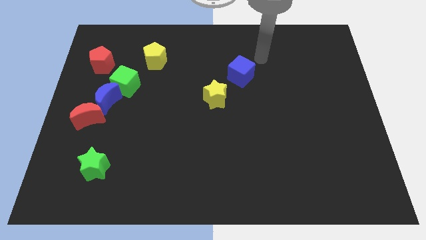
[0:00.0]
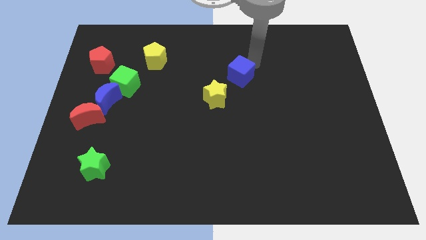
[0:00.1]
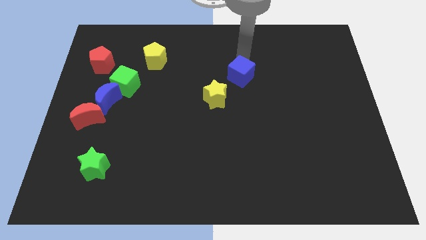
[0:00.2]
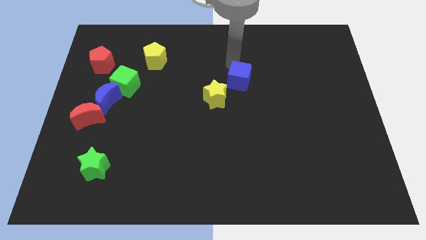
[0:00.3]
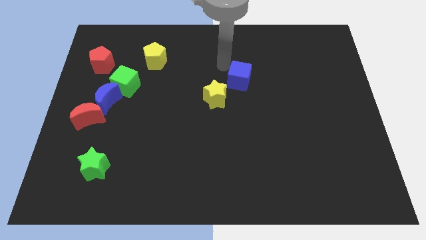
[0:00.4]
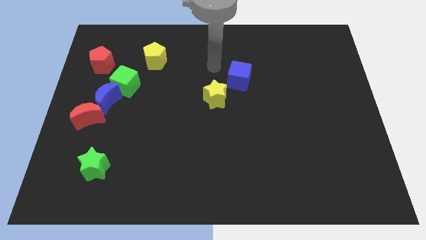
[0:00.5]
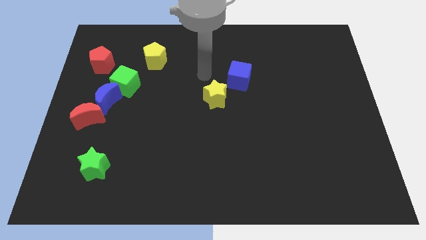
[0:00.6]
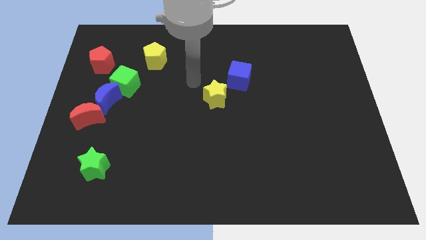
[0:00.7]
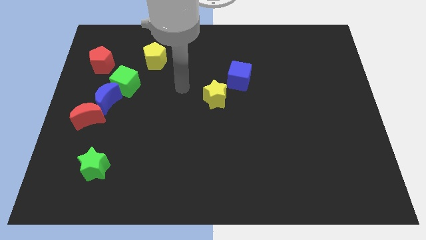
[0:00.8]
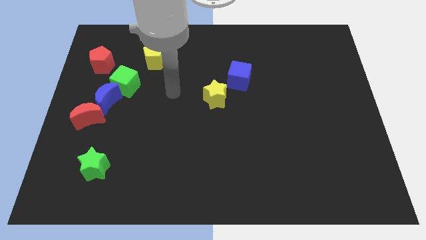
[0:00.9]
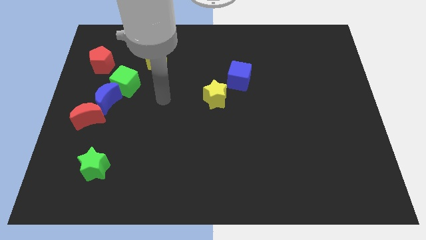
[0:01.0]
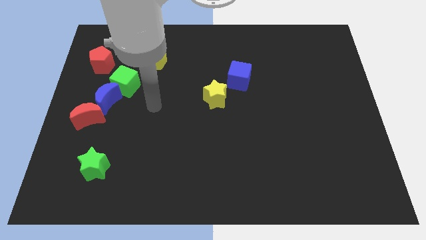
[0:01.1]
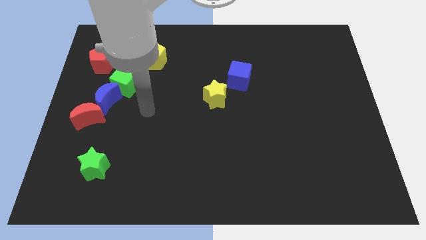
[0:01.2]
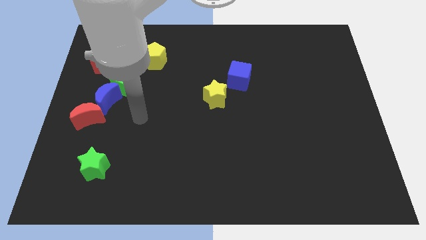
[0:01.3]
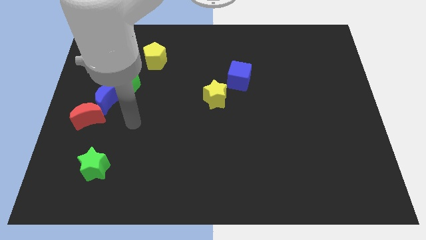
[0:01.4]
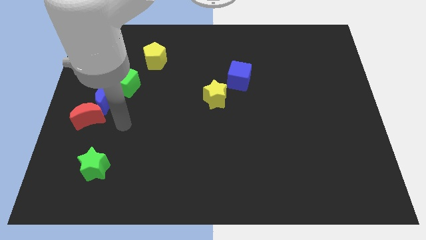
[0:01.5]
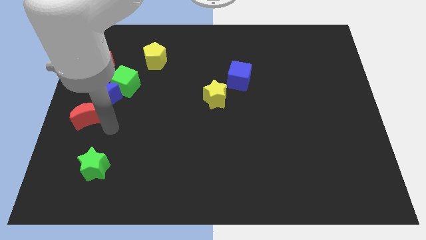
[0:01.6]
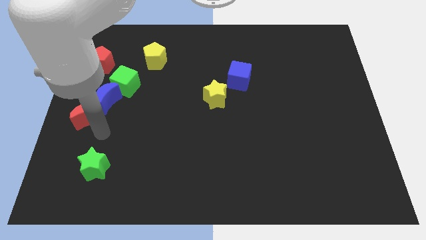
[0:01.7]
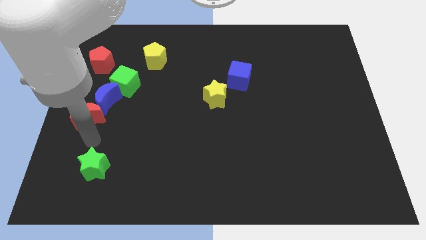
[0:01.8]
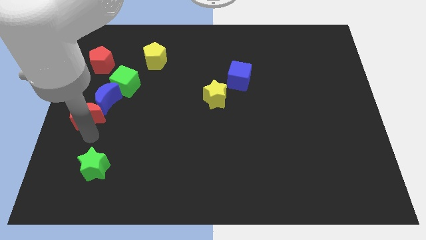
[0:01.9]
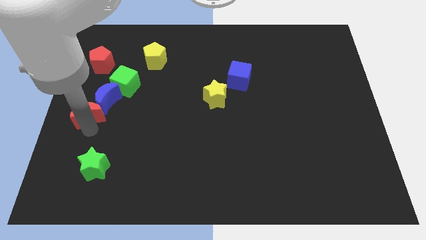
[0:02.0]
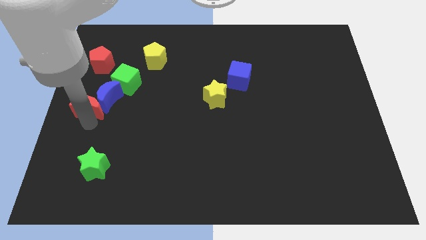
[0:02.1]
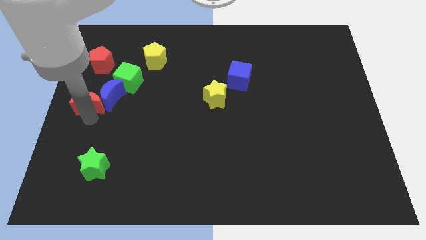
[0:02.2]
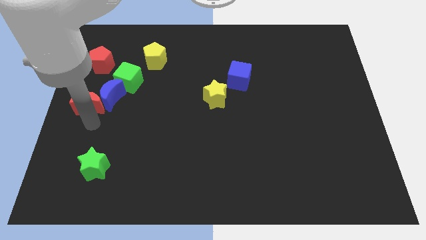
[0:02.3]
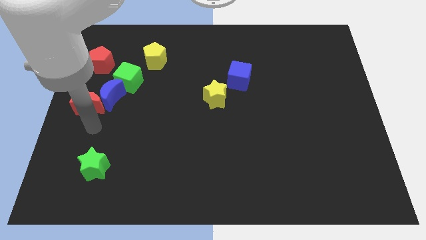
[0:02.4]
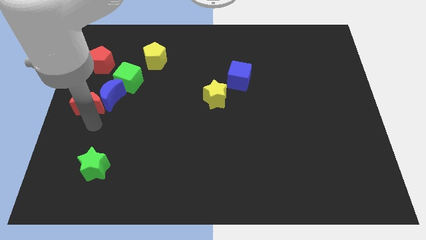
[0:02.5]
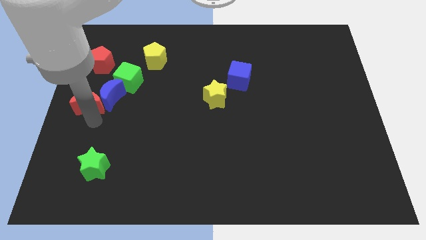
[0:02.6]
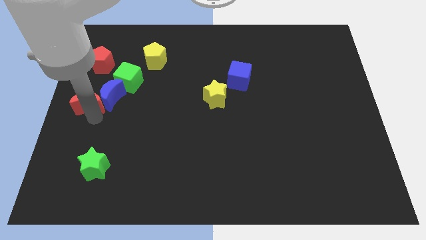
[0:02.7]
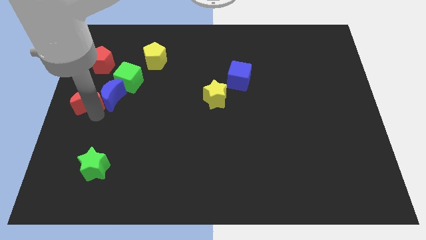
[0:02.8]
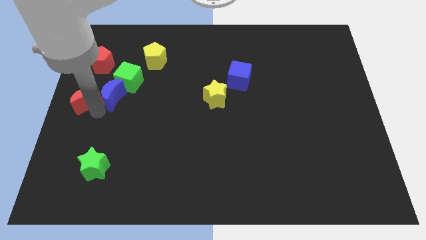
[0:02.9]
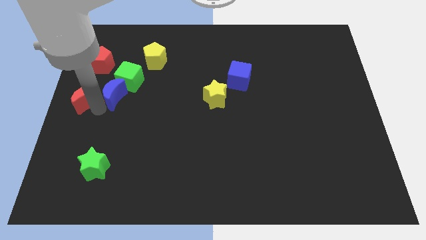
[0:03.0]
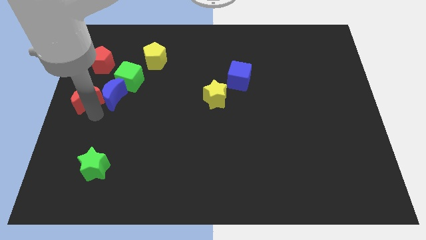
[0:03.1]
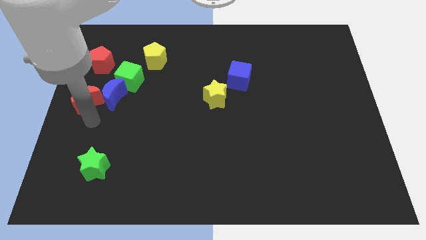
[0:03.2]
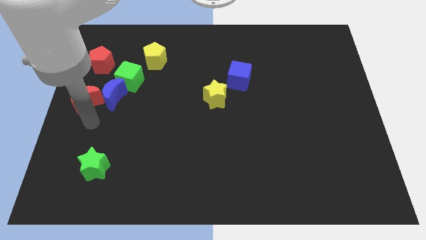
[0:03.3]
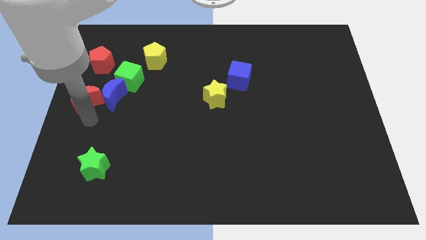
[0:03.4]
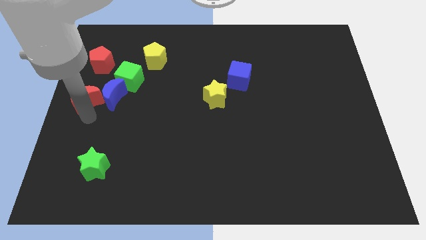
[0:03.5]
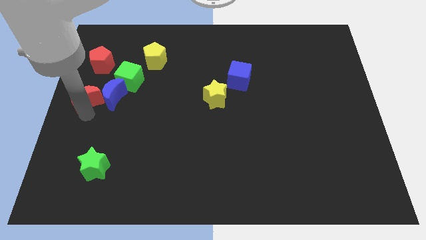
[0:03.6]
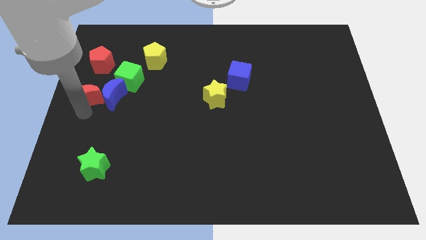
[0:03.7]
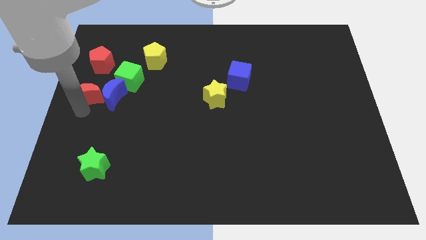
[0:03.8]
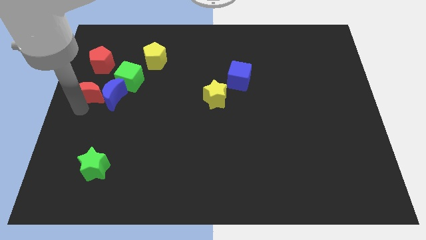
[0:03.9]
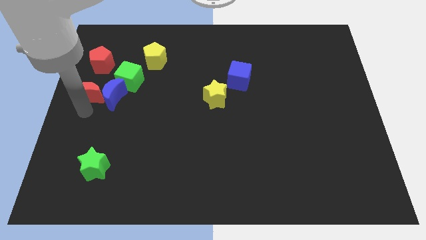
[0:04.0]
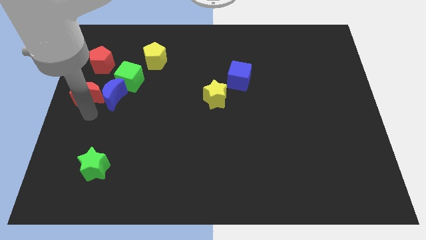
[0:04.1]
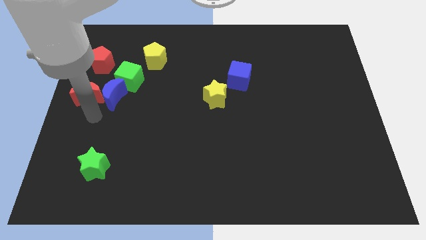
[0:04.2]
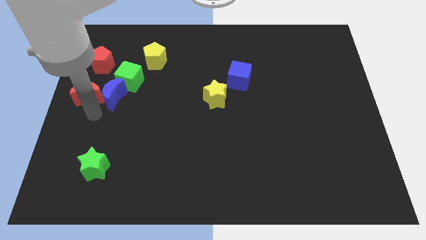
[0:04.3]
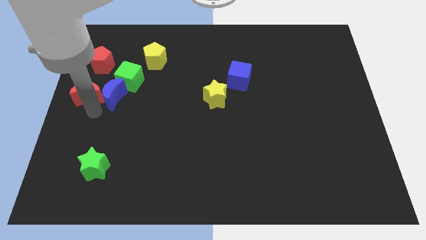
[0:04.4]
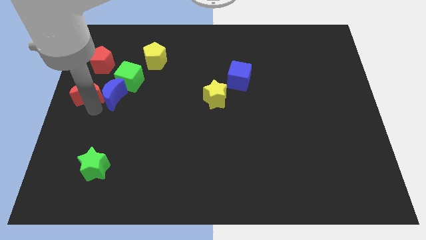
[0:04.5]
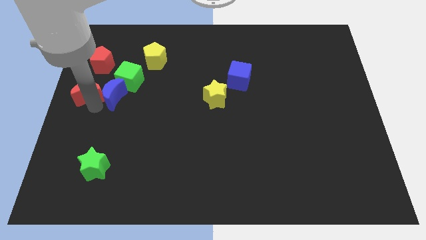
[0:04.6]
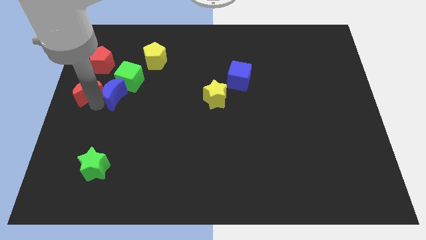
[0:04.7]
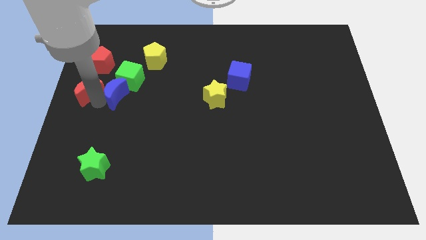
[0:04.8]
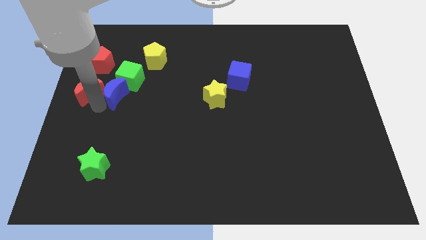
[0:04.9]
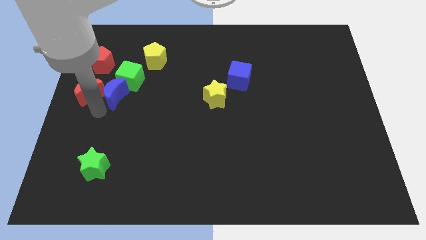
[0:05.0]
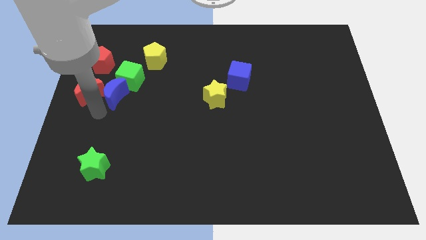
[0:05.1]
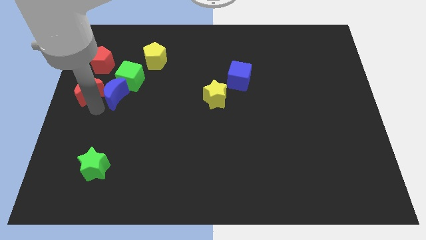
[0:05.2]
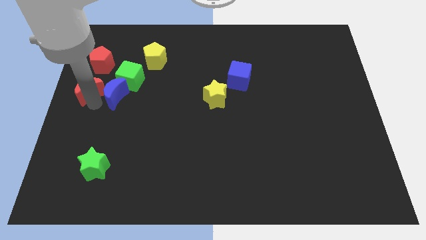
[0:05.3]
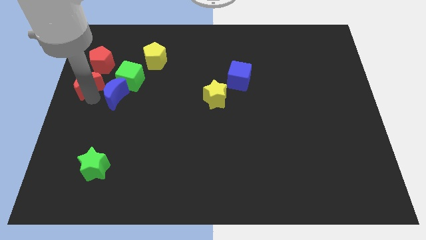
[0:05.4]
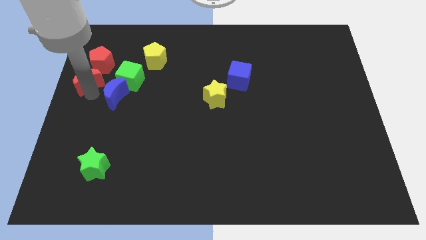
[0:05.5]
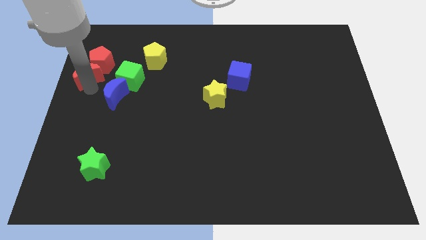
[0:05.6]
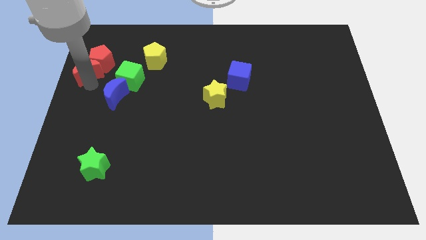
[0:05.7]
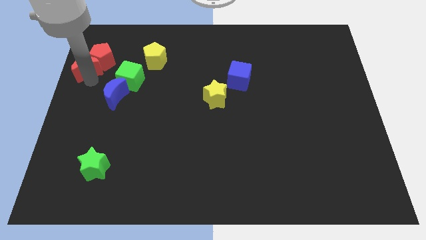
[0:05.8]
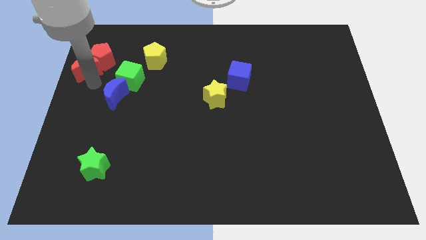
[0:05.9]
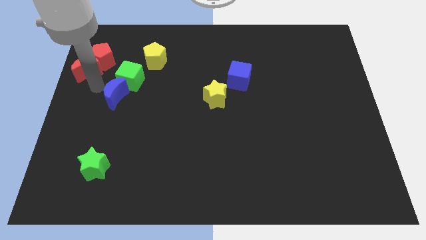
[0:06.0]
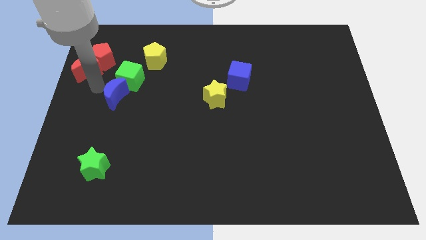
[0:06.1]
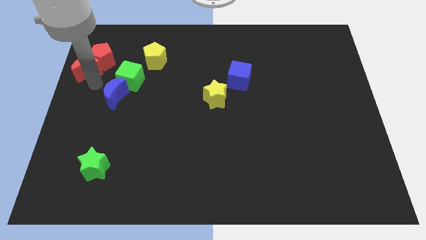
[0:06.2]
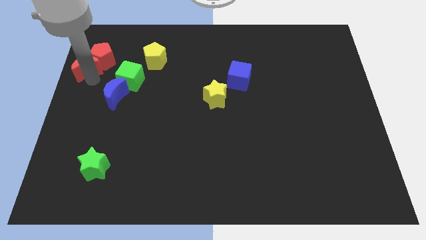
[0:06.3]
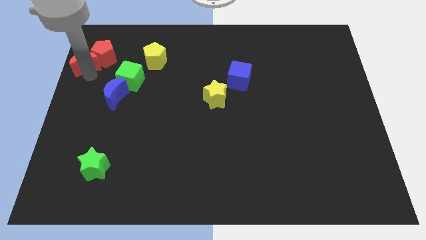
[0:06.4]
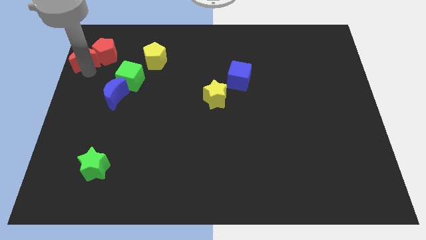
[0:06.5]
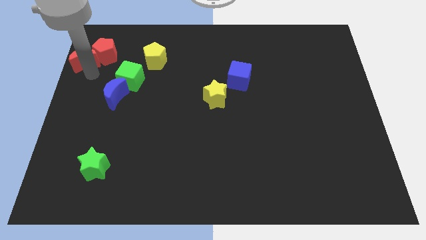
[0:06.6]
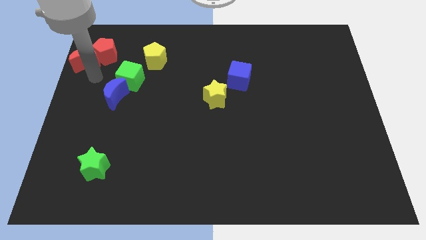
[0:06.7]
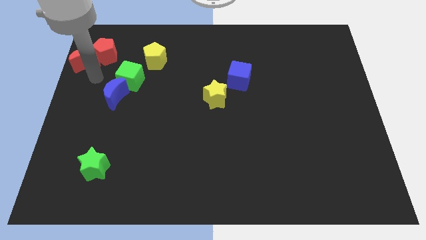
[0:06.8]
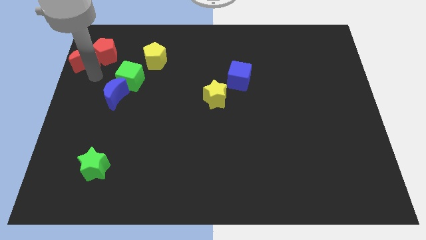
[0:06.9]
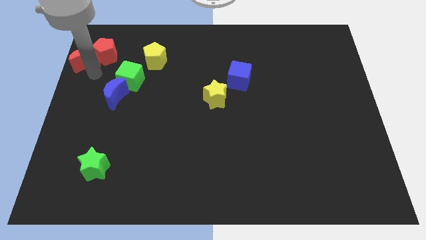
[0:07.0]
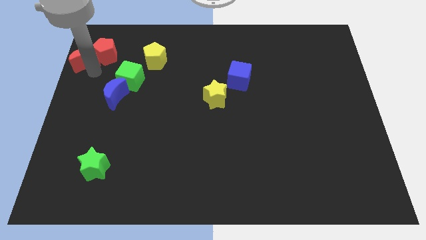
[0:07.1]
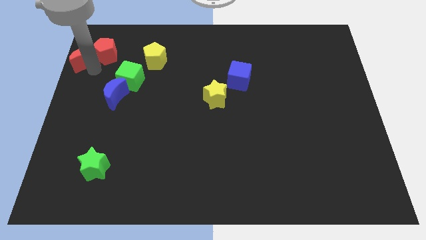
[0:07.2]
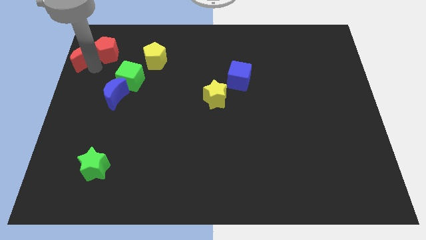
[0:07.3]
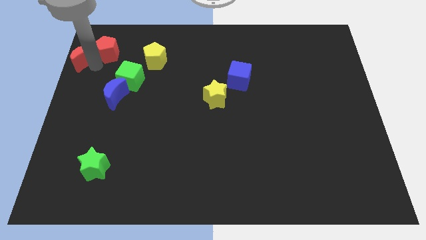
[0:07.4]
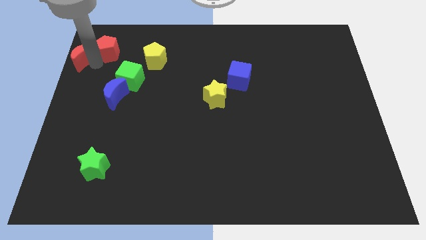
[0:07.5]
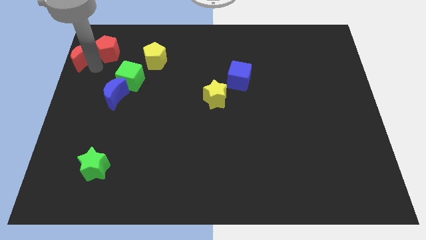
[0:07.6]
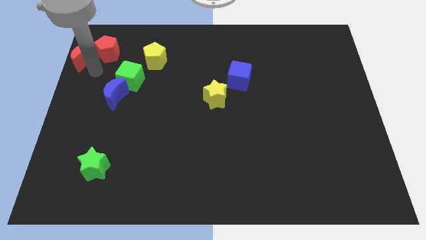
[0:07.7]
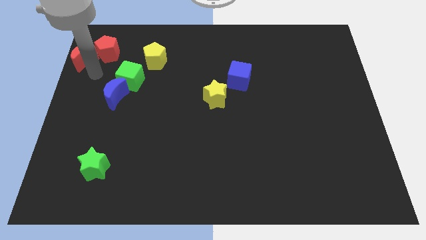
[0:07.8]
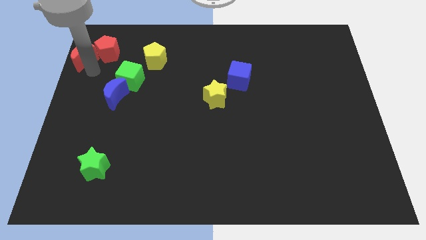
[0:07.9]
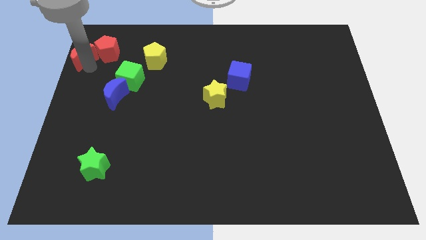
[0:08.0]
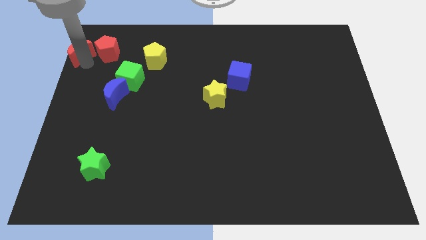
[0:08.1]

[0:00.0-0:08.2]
push the red moon to the top left of the board
